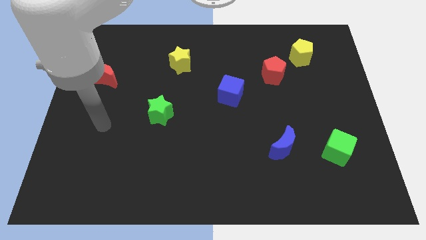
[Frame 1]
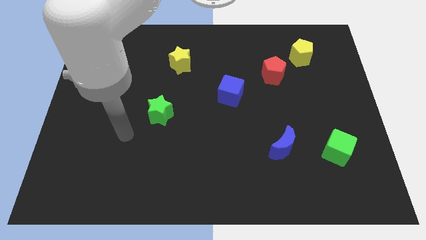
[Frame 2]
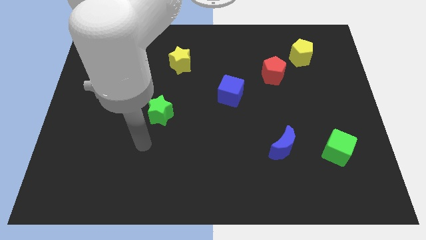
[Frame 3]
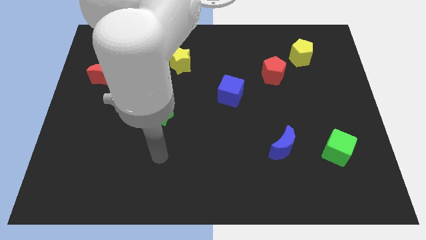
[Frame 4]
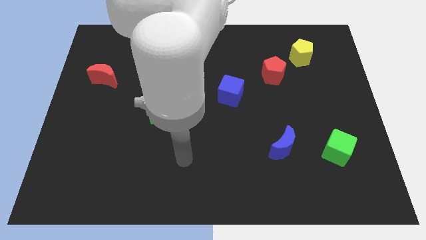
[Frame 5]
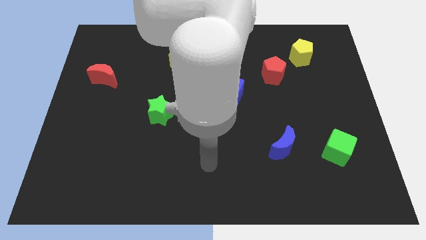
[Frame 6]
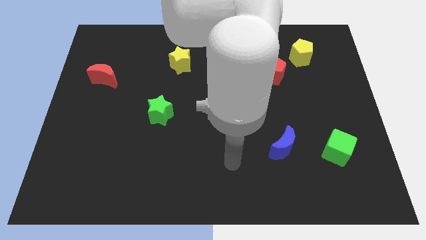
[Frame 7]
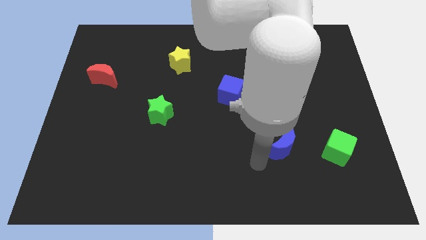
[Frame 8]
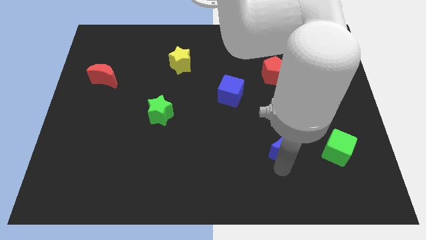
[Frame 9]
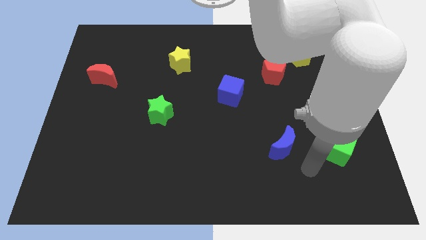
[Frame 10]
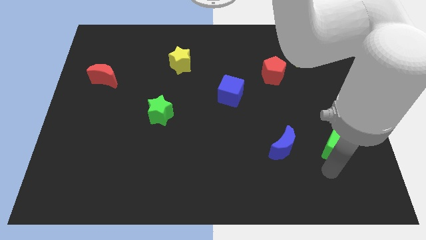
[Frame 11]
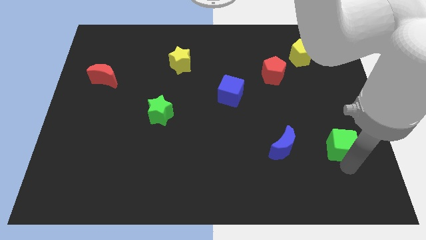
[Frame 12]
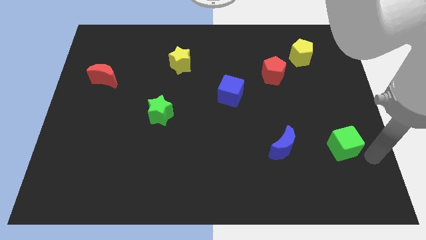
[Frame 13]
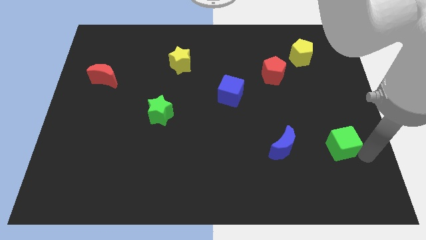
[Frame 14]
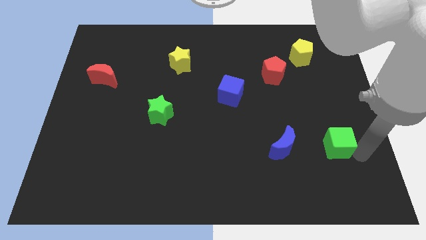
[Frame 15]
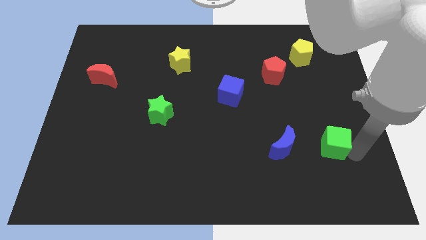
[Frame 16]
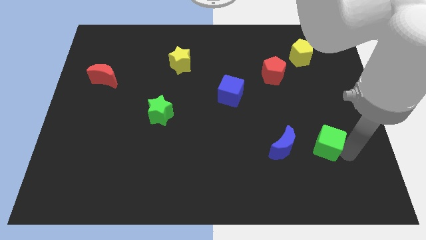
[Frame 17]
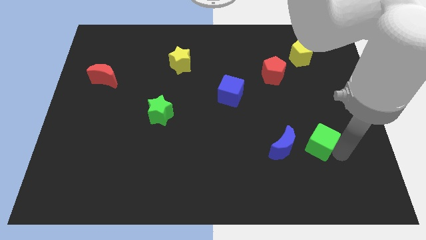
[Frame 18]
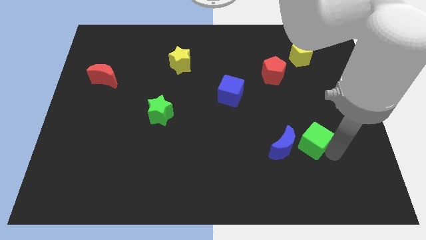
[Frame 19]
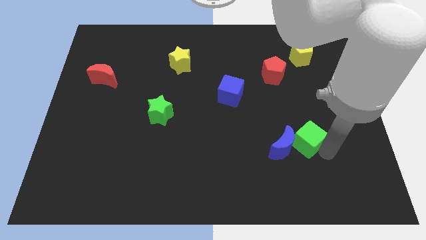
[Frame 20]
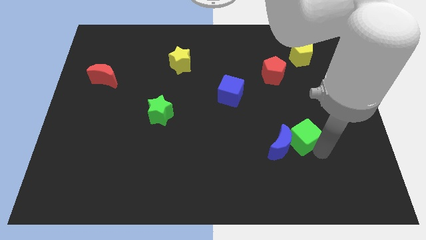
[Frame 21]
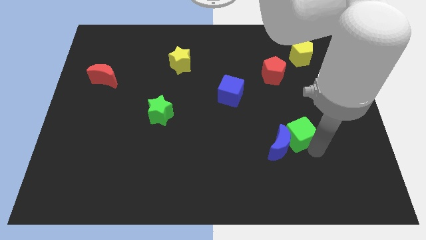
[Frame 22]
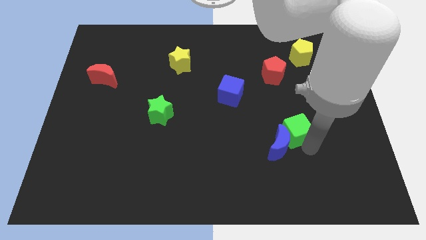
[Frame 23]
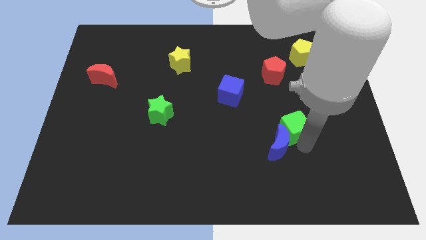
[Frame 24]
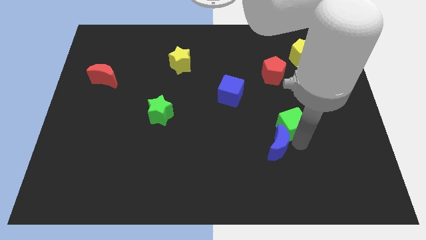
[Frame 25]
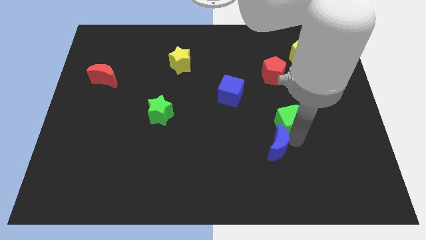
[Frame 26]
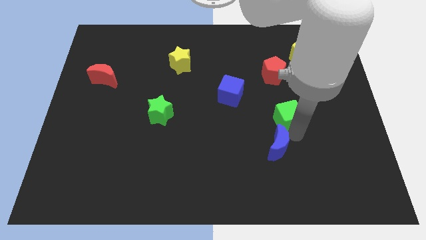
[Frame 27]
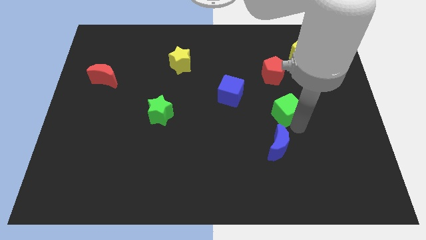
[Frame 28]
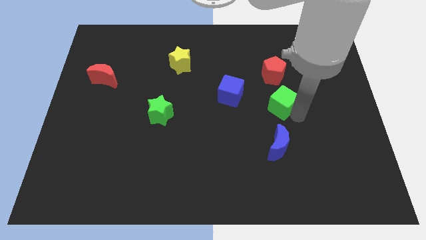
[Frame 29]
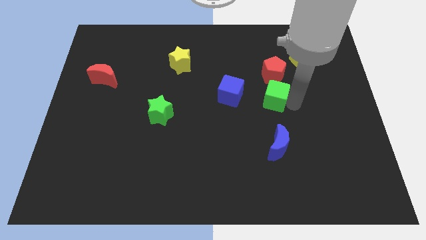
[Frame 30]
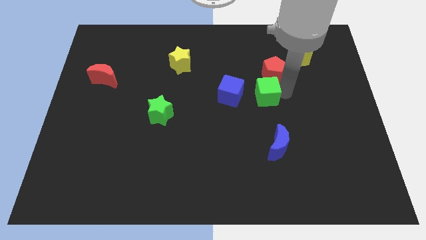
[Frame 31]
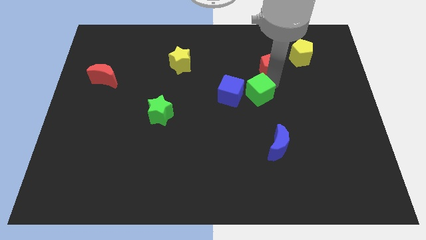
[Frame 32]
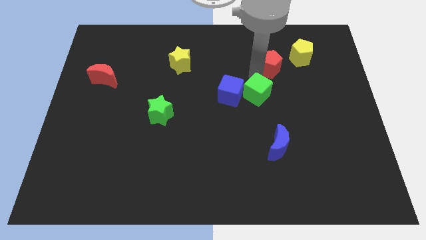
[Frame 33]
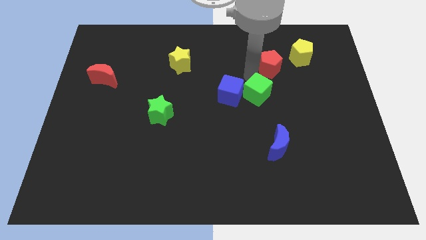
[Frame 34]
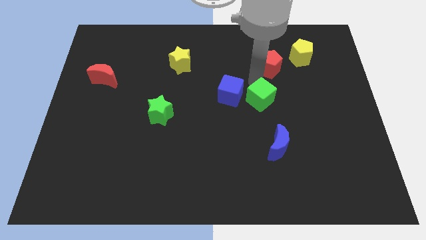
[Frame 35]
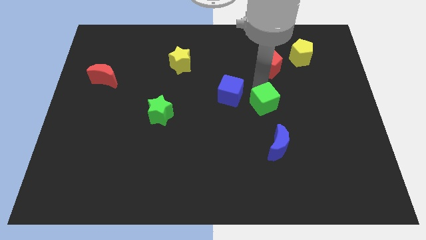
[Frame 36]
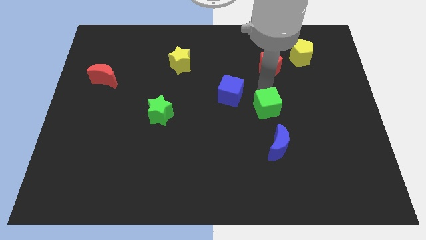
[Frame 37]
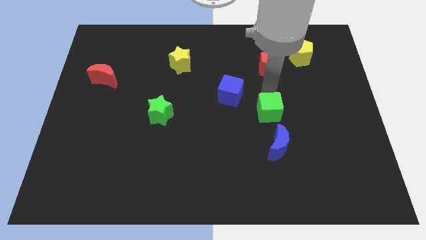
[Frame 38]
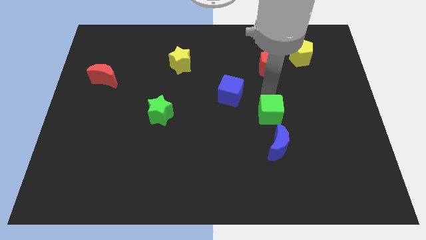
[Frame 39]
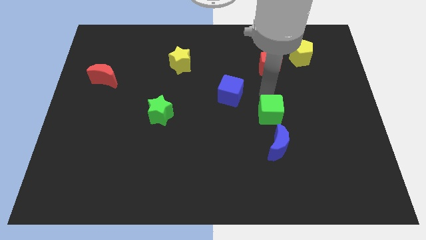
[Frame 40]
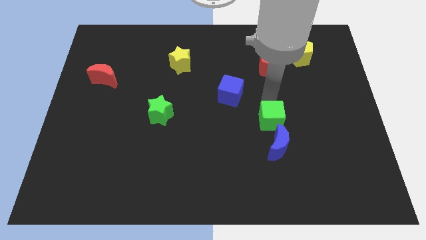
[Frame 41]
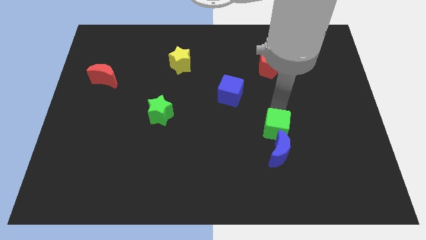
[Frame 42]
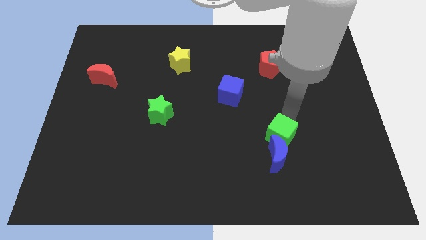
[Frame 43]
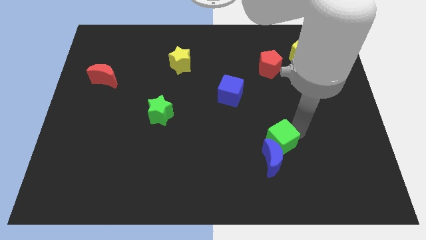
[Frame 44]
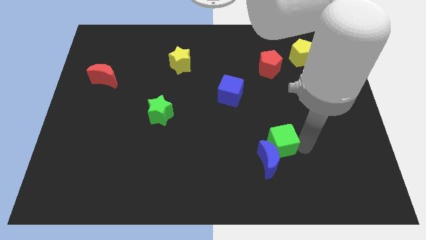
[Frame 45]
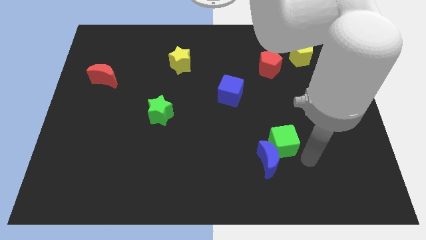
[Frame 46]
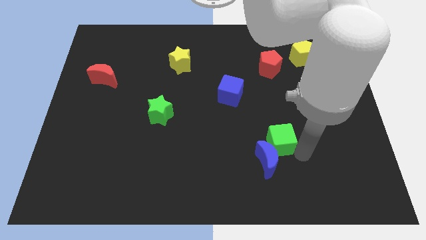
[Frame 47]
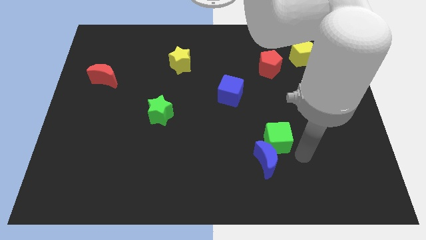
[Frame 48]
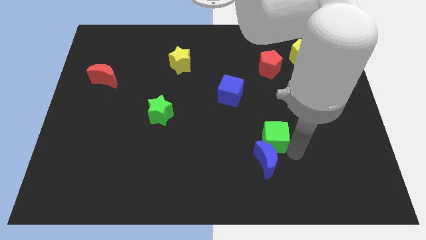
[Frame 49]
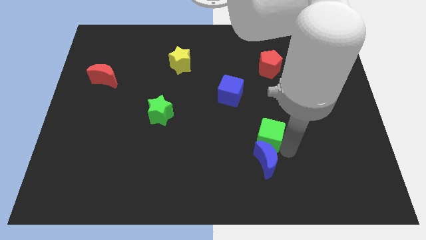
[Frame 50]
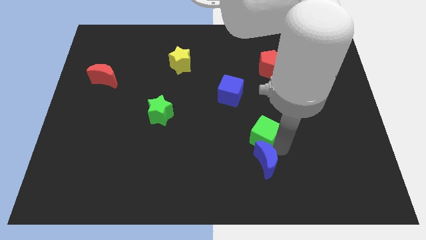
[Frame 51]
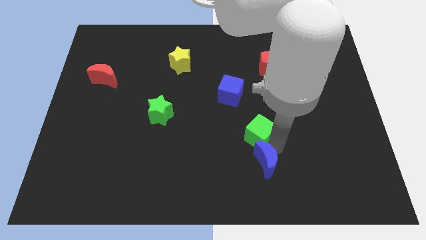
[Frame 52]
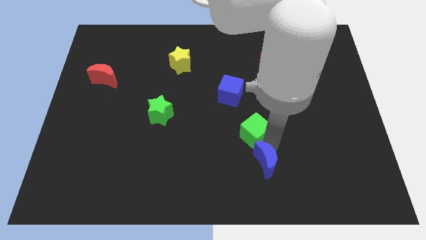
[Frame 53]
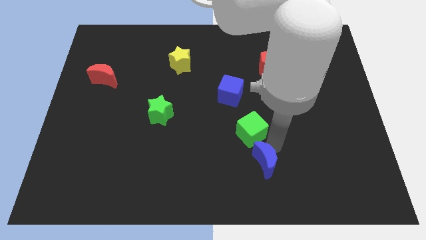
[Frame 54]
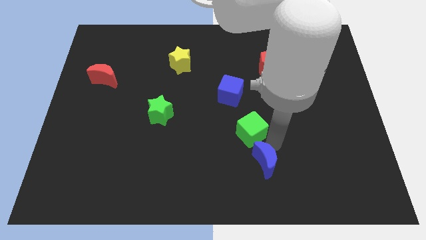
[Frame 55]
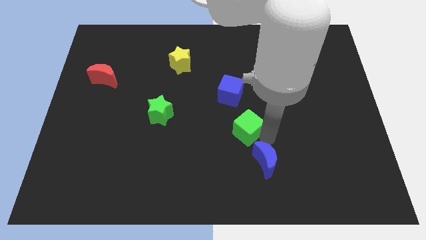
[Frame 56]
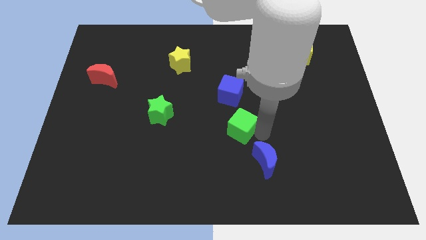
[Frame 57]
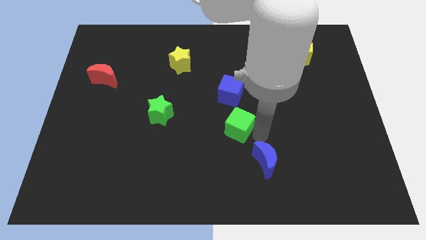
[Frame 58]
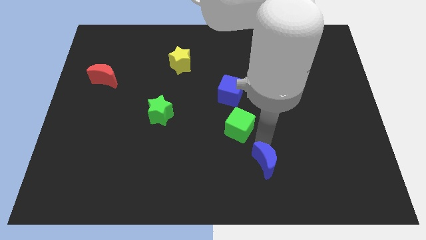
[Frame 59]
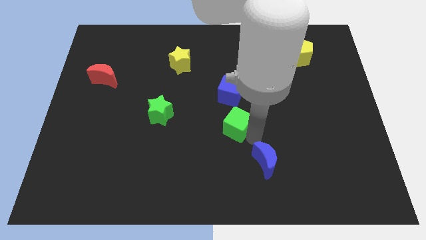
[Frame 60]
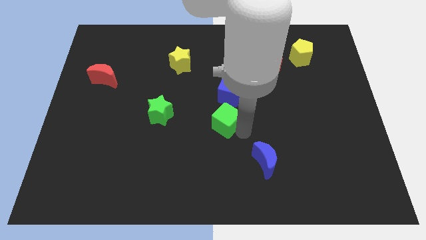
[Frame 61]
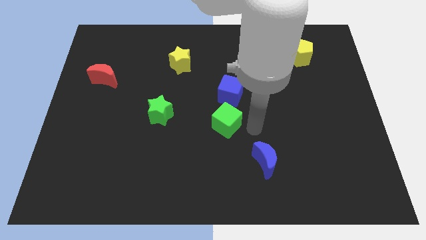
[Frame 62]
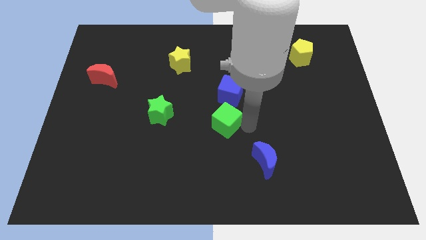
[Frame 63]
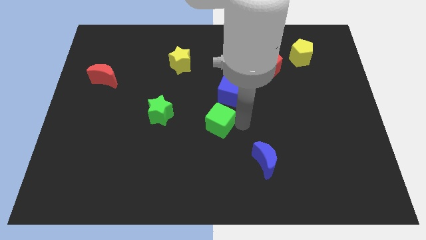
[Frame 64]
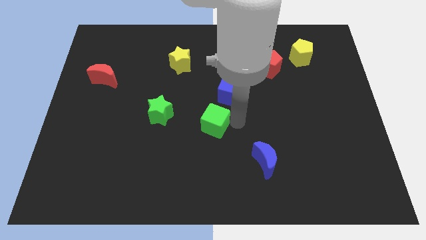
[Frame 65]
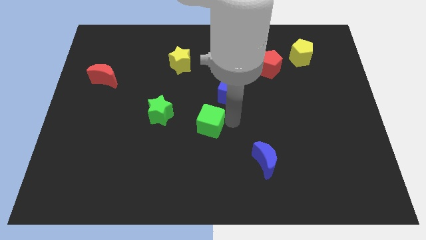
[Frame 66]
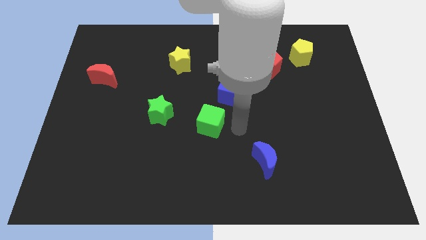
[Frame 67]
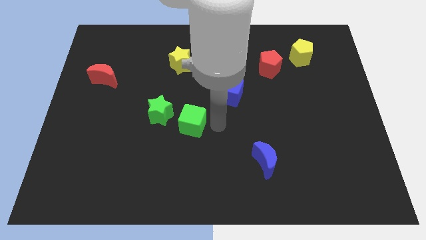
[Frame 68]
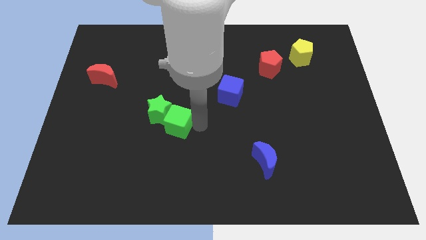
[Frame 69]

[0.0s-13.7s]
slide the green cube towards the green star

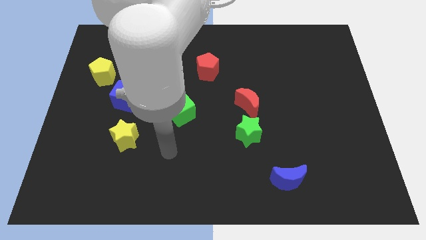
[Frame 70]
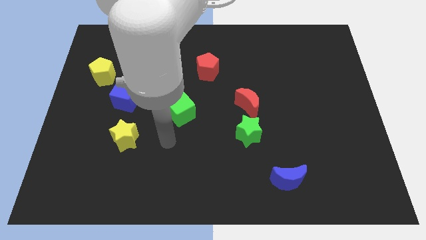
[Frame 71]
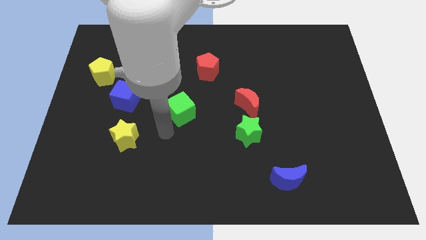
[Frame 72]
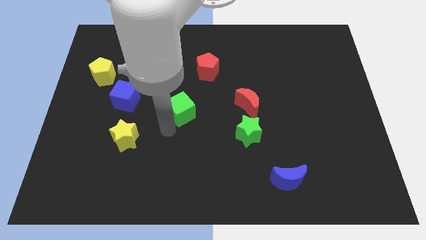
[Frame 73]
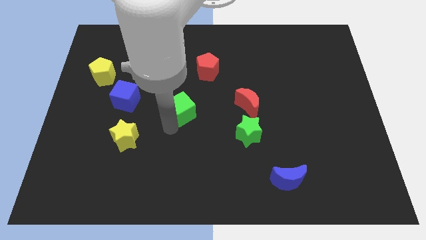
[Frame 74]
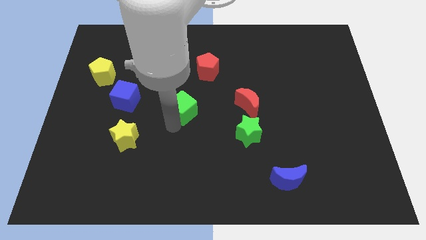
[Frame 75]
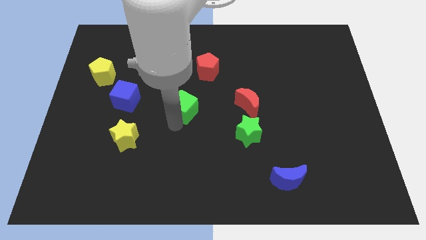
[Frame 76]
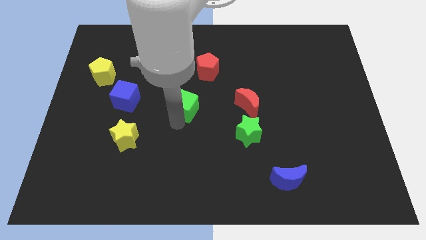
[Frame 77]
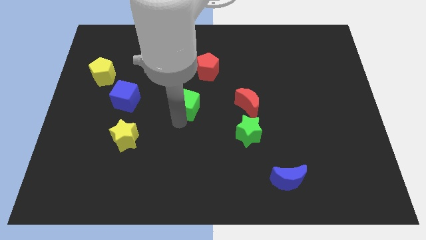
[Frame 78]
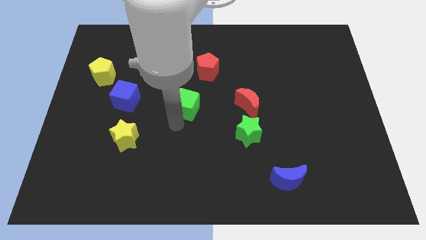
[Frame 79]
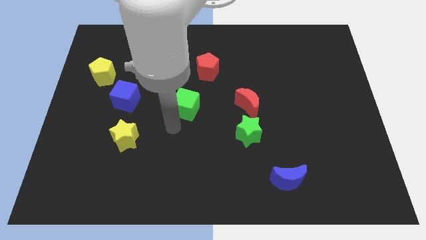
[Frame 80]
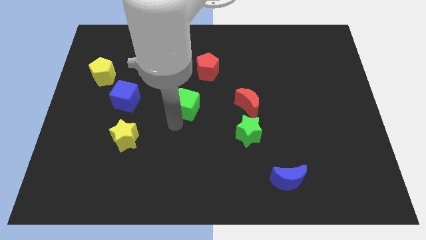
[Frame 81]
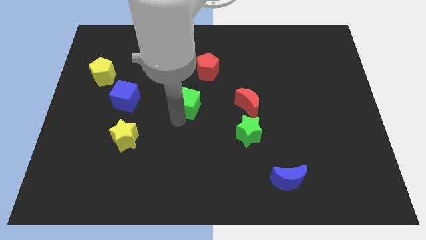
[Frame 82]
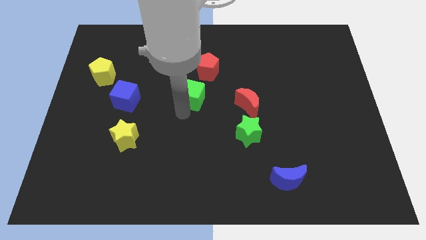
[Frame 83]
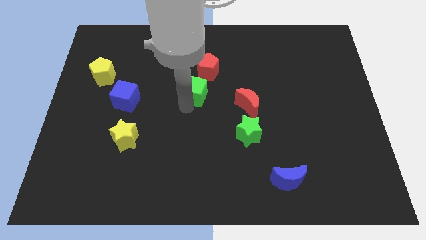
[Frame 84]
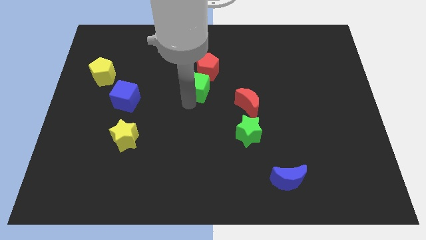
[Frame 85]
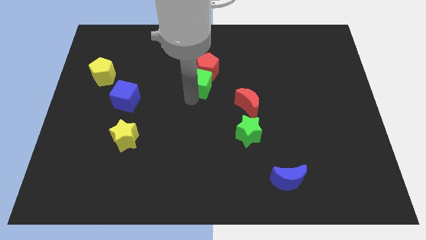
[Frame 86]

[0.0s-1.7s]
slide the green cube to the red pentagon
